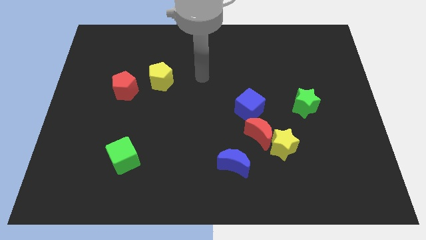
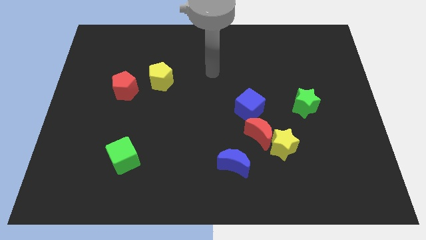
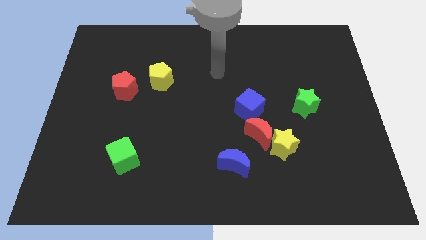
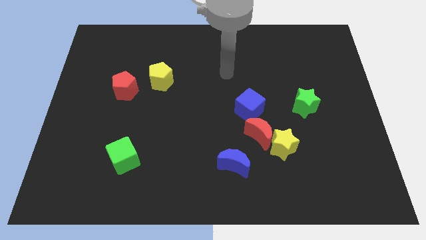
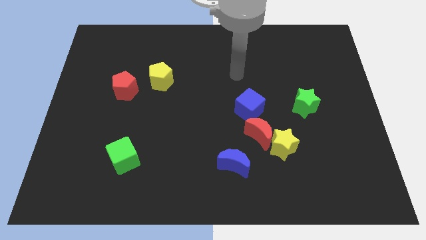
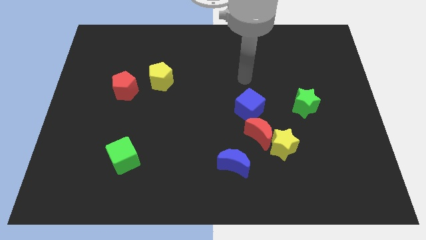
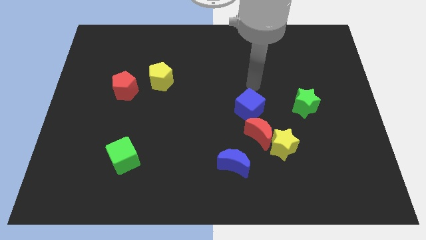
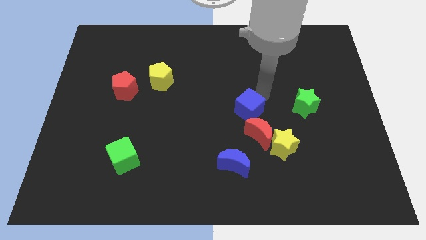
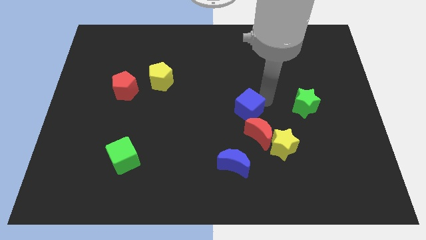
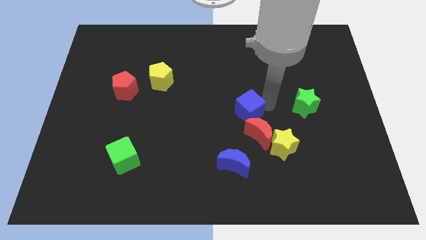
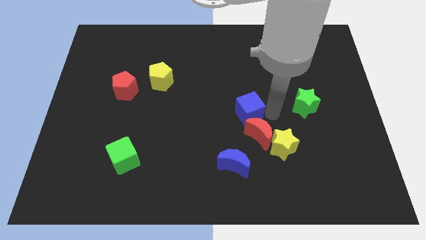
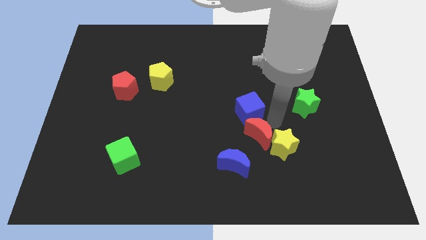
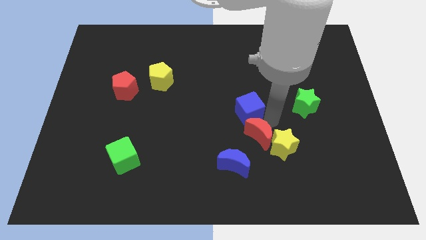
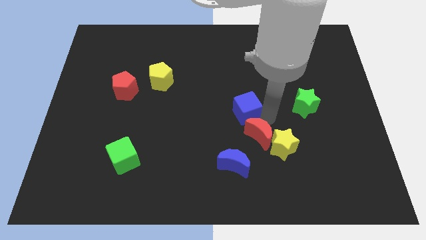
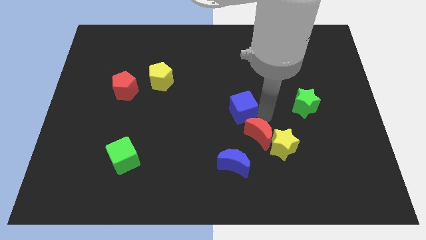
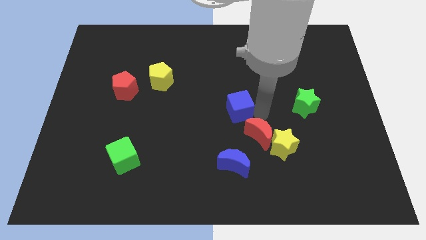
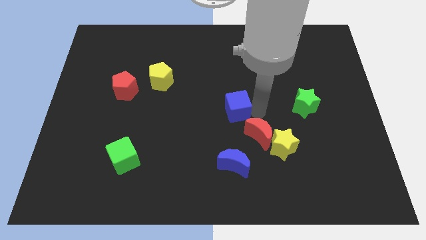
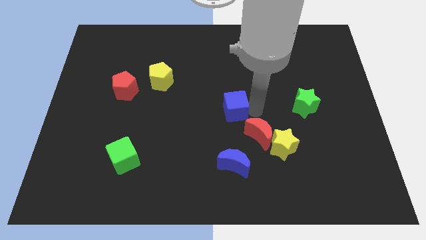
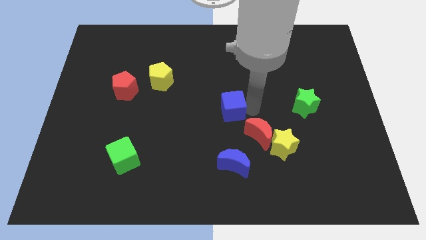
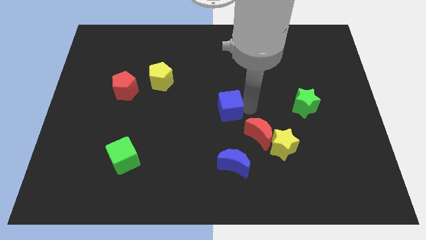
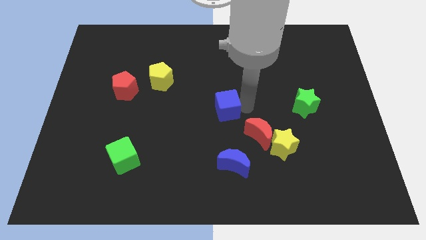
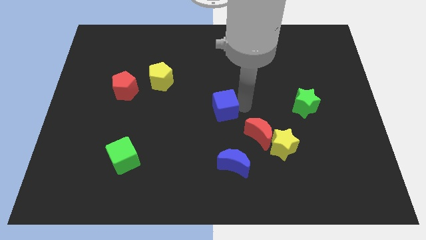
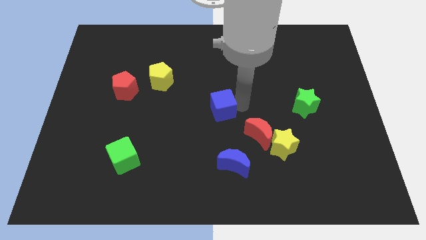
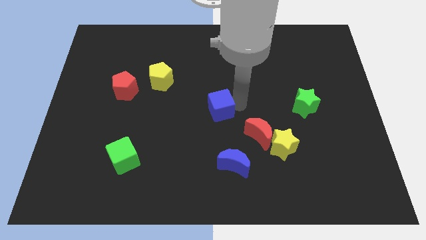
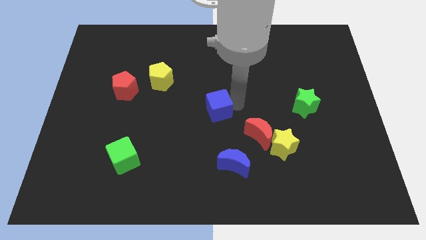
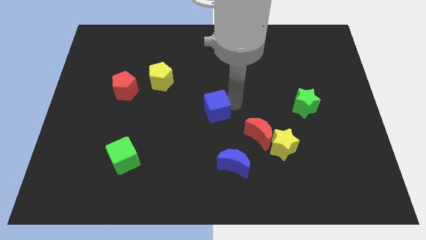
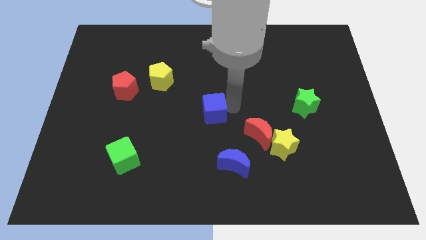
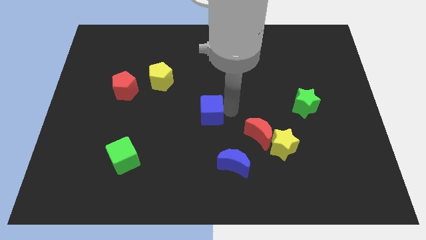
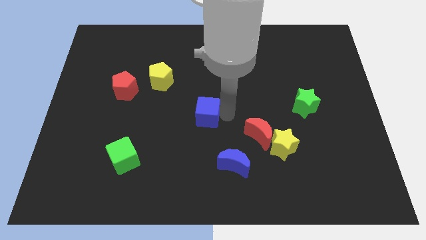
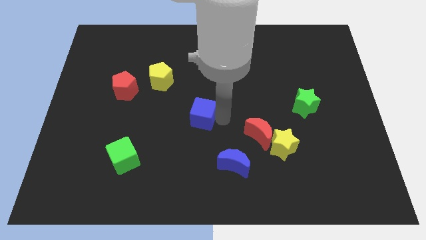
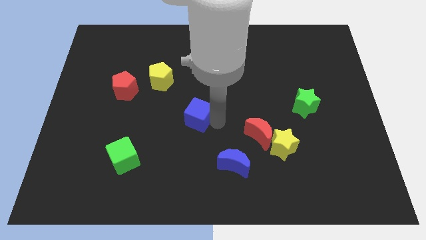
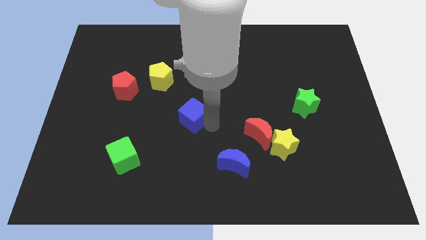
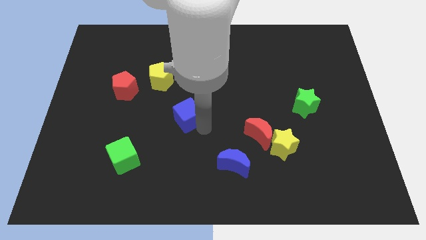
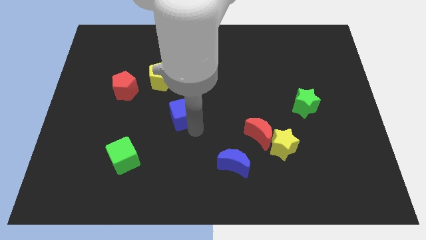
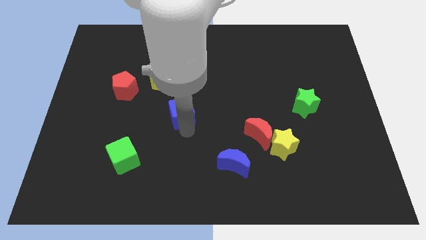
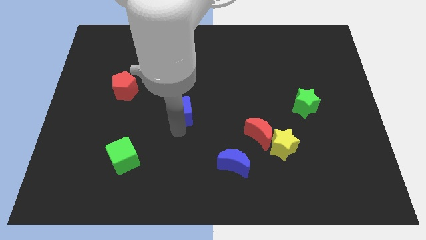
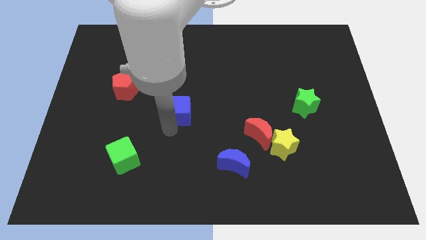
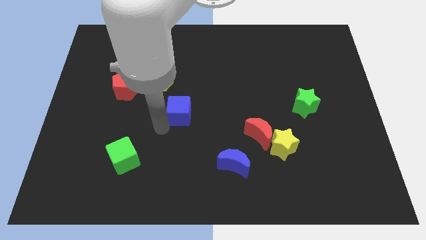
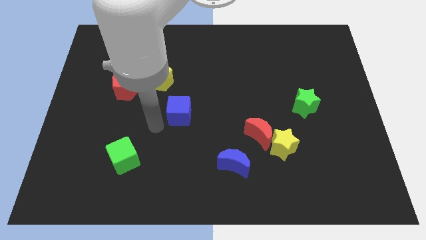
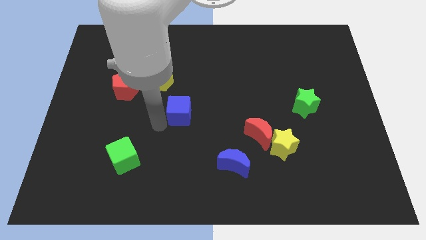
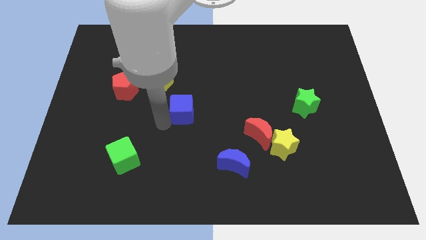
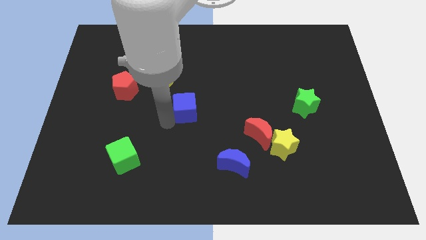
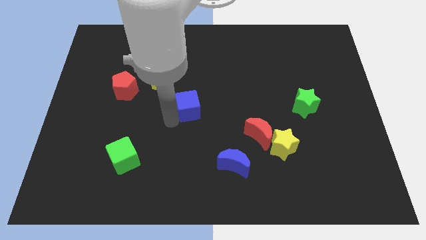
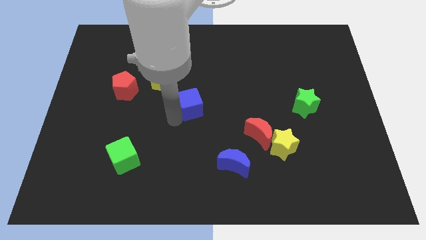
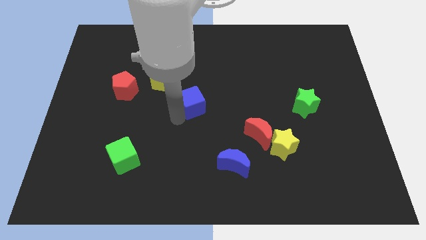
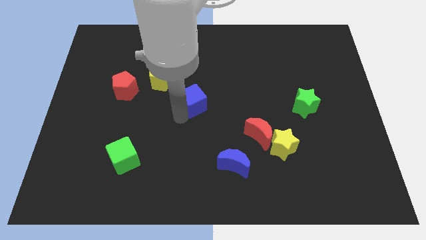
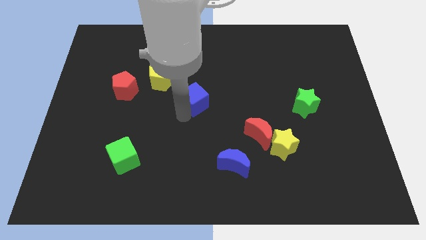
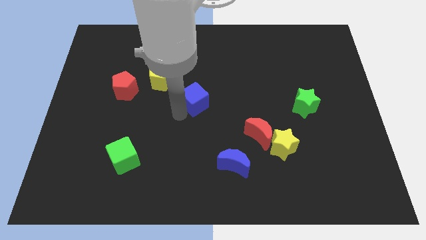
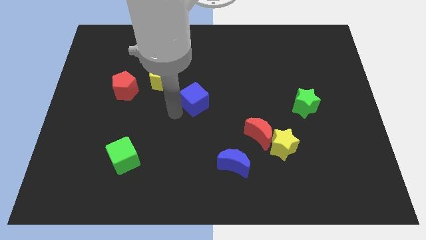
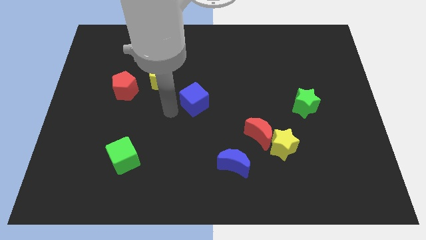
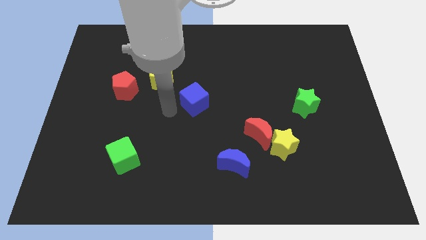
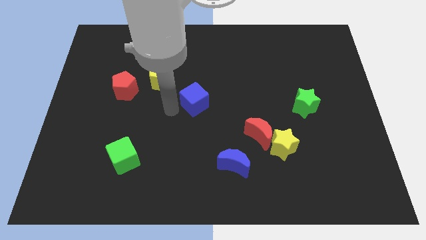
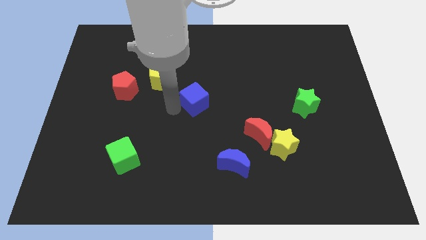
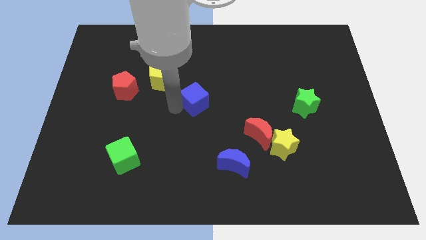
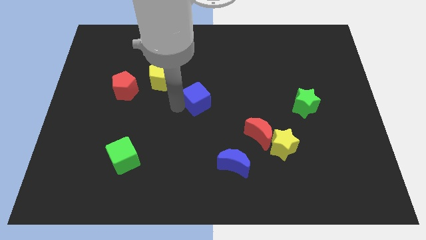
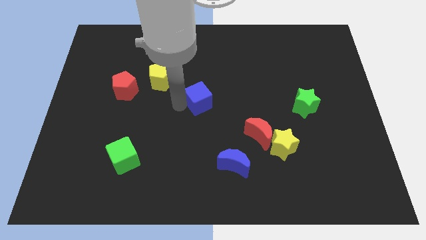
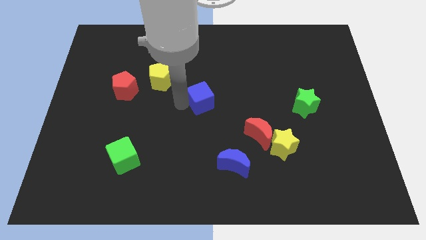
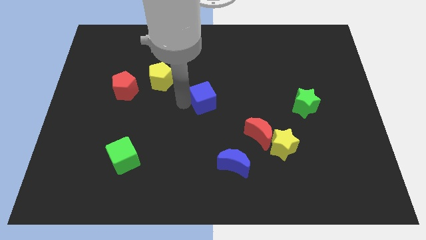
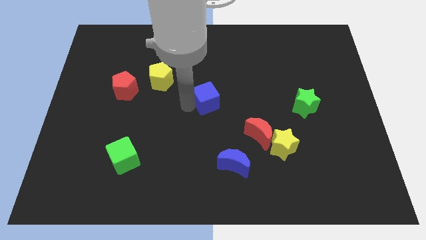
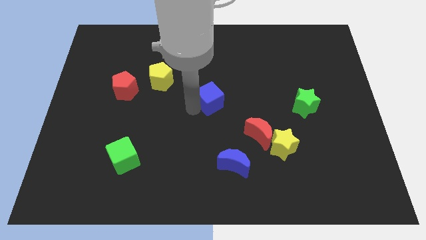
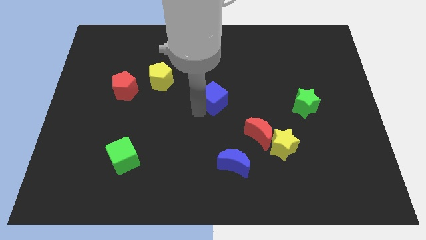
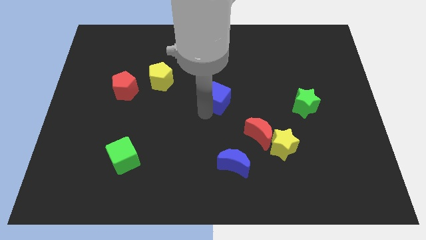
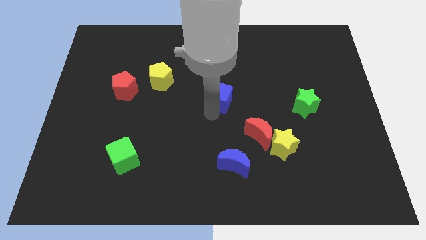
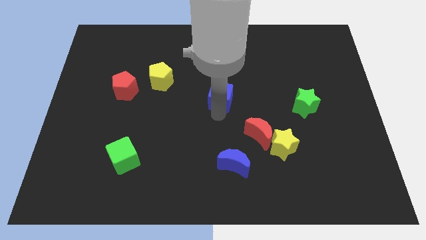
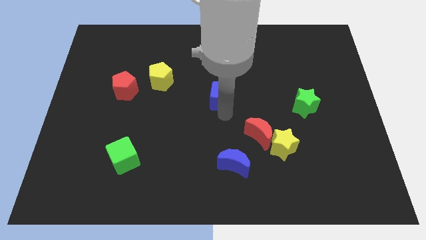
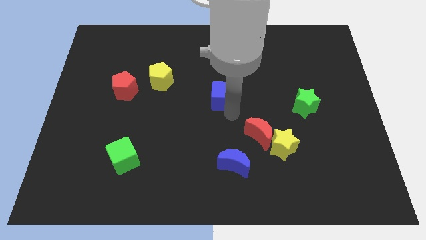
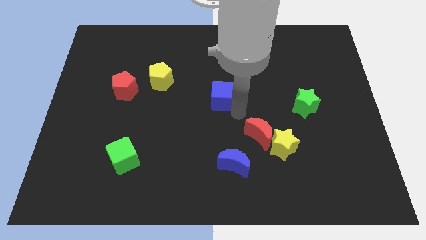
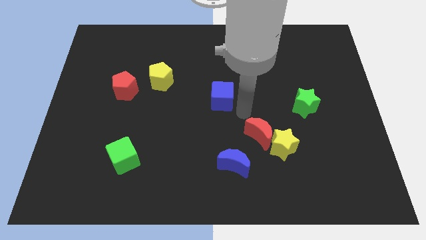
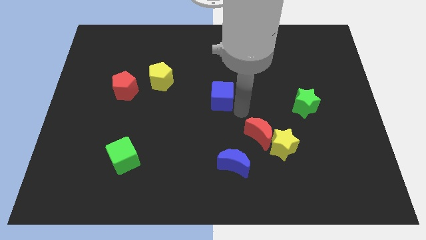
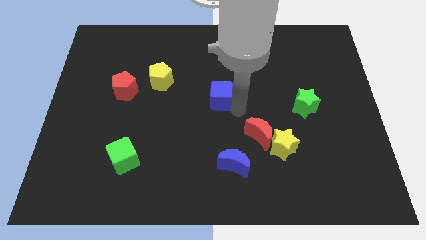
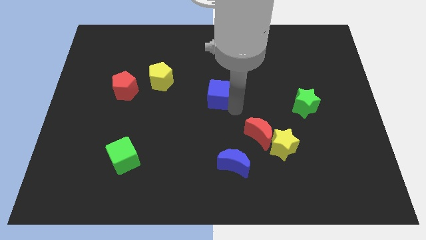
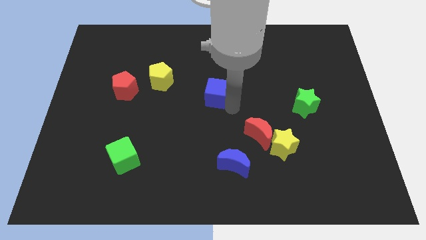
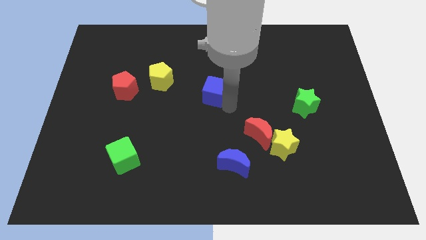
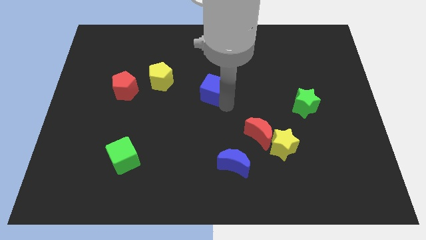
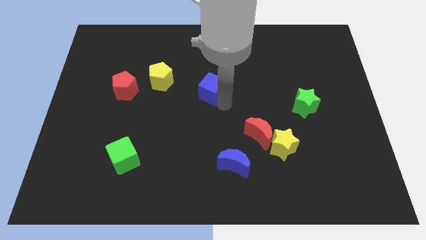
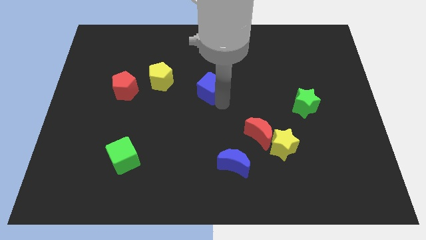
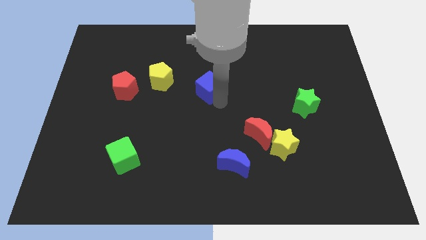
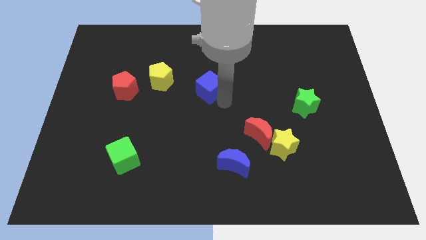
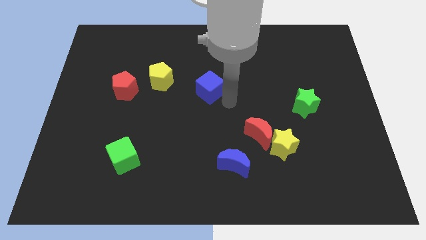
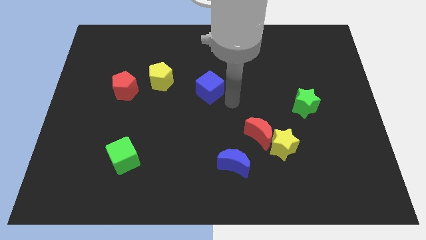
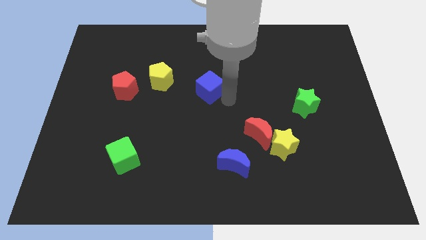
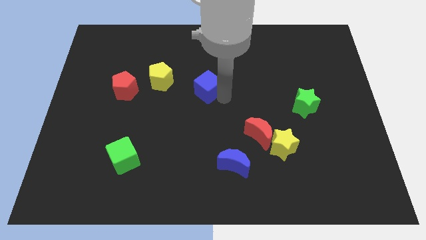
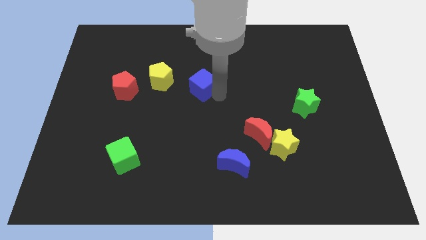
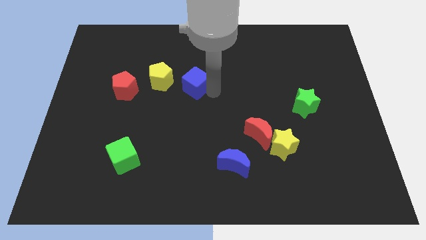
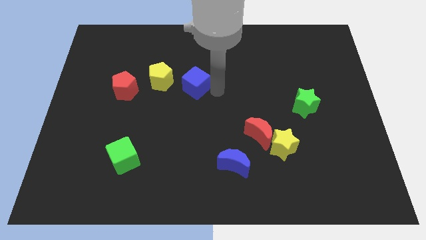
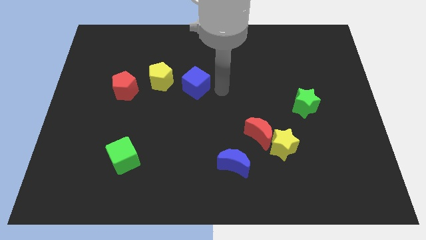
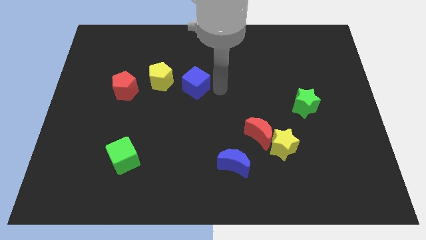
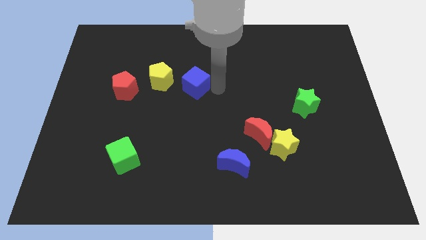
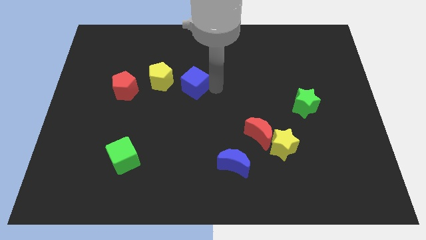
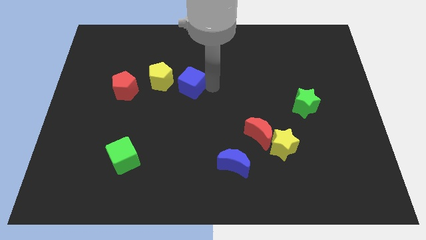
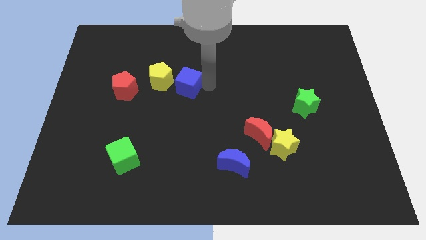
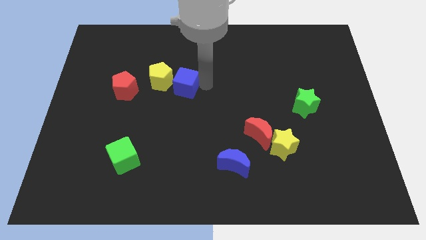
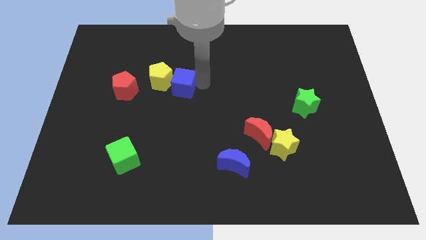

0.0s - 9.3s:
move the blue cube to the yellow pentagon
